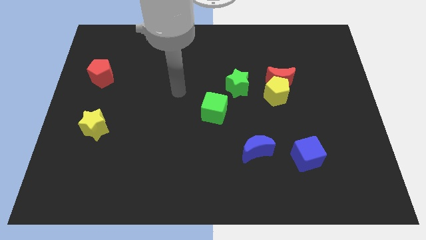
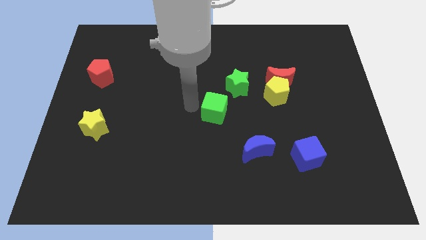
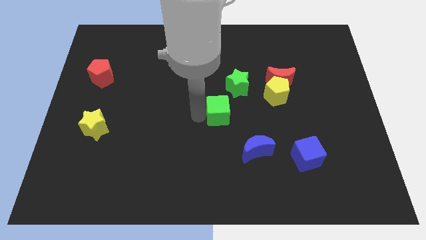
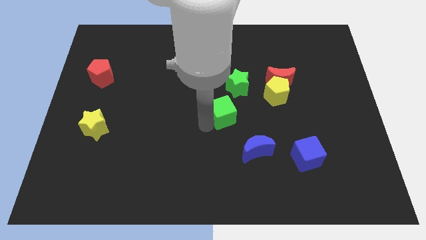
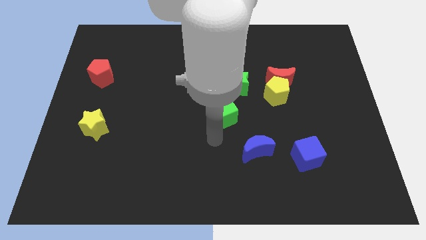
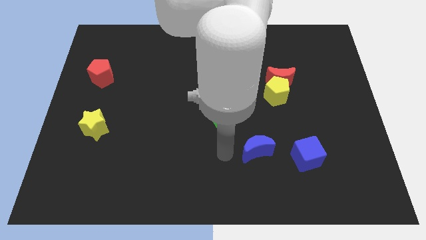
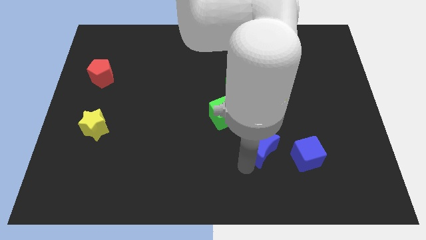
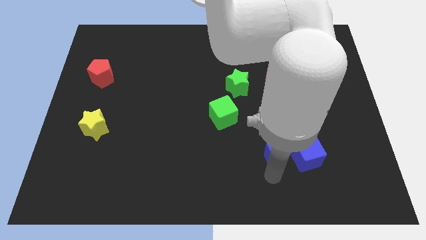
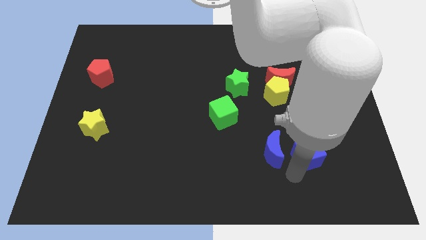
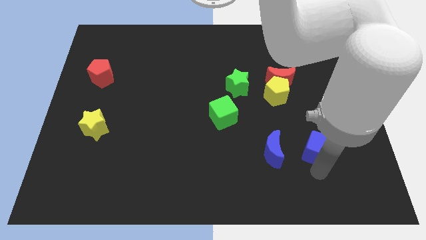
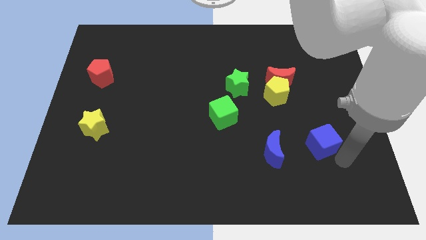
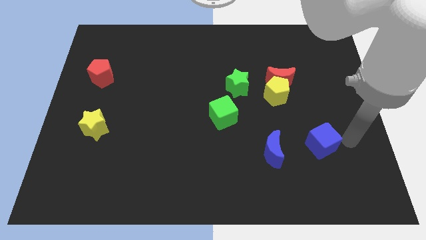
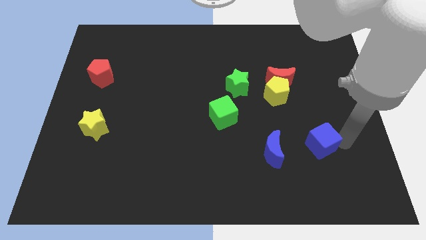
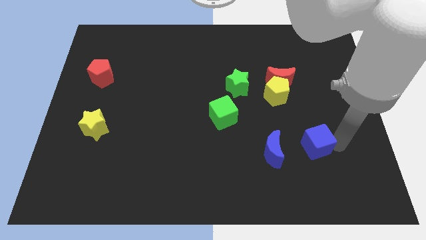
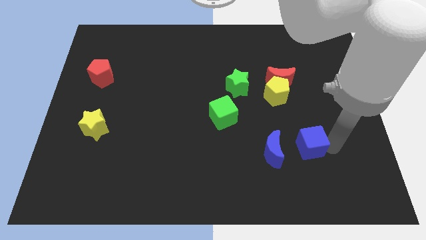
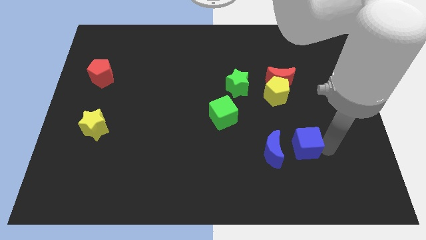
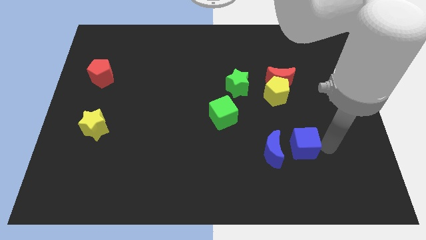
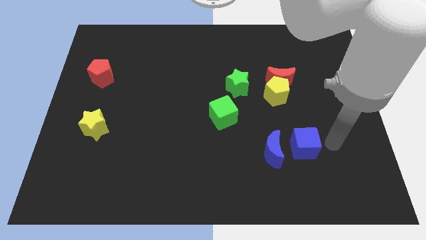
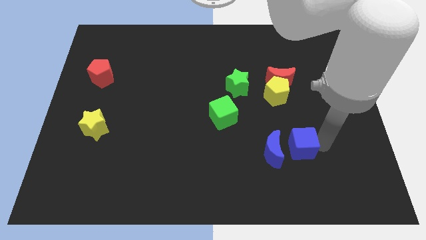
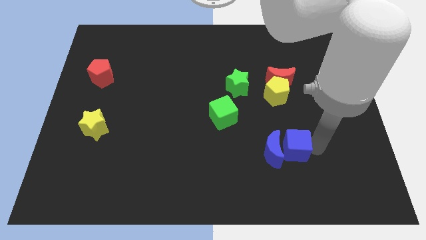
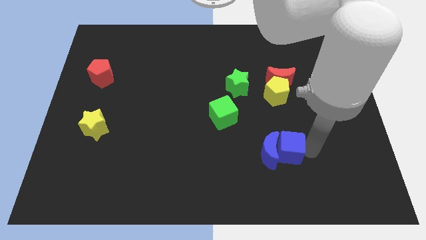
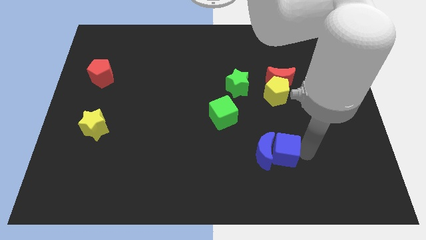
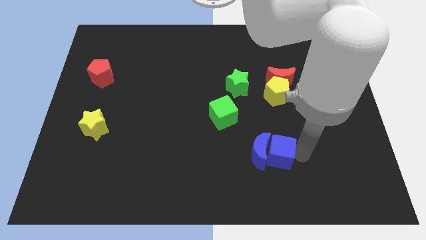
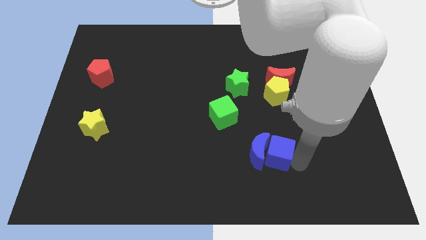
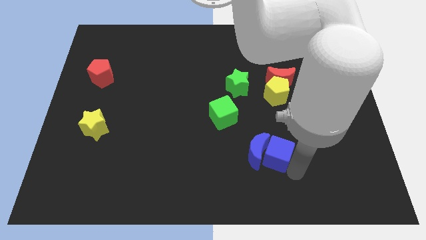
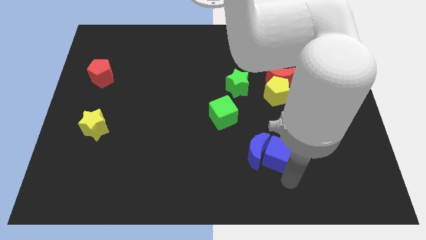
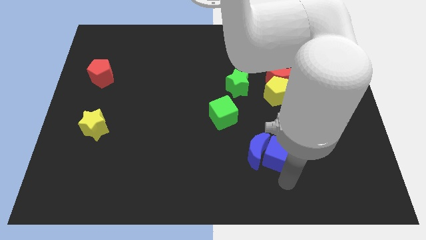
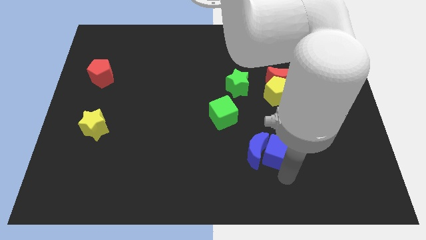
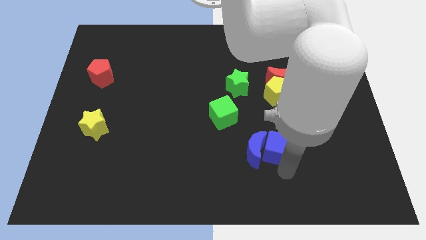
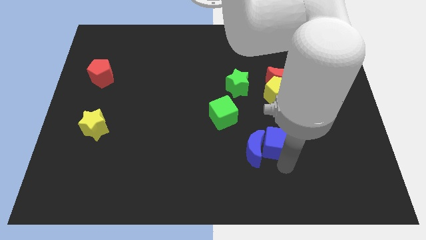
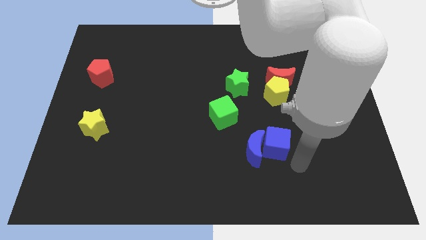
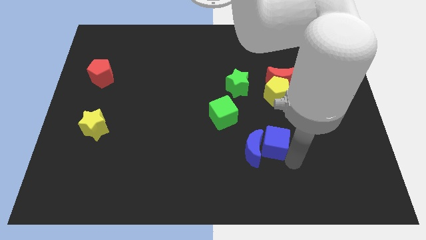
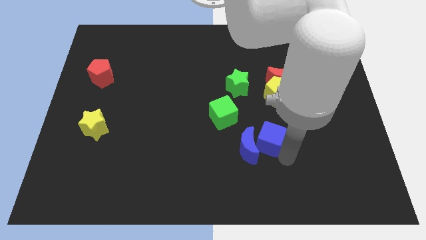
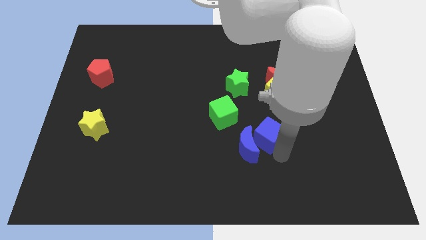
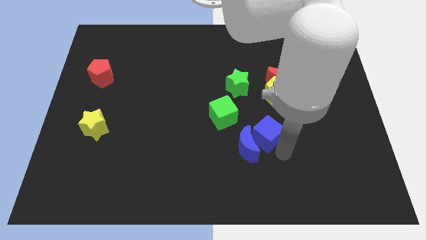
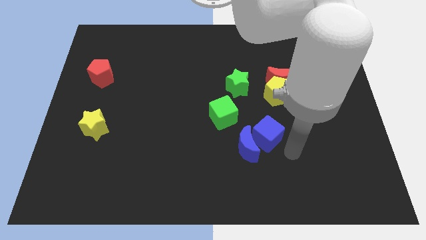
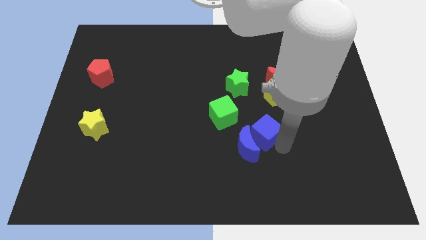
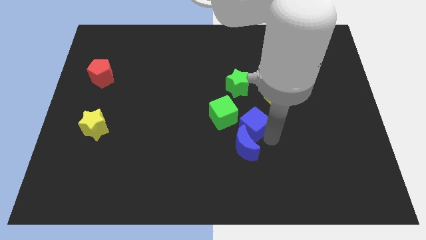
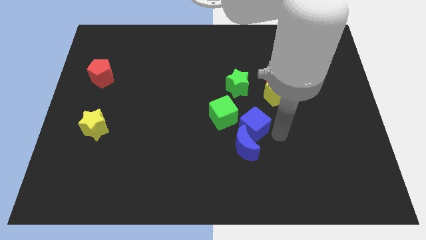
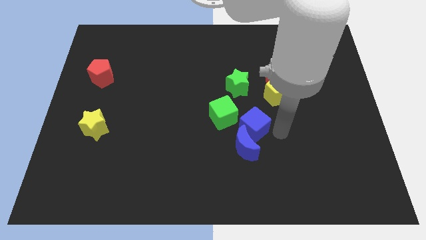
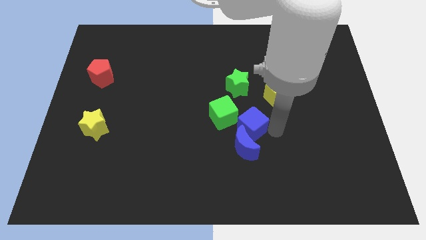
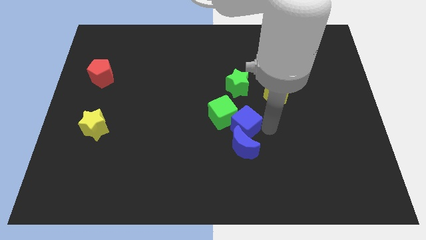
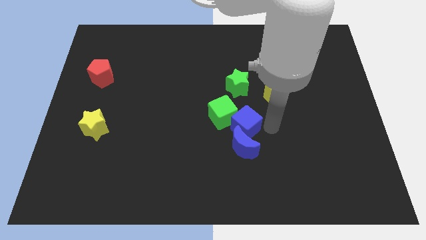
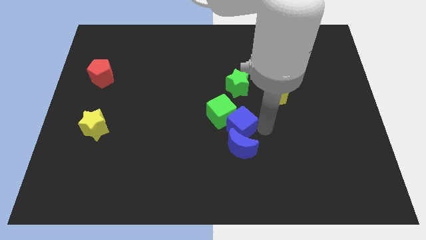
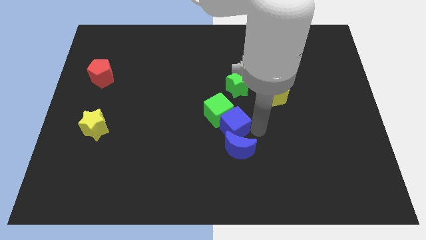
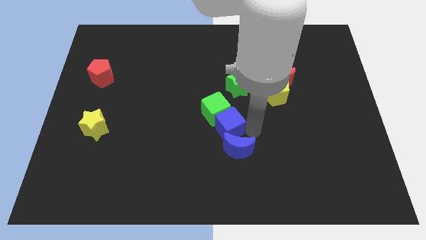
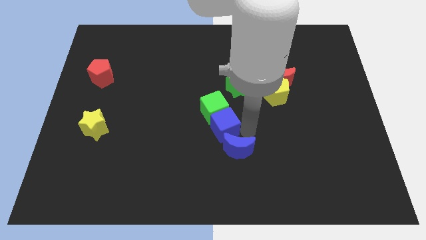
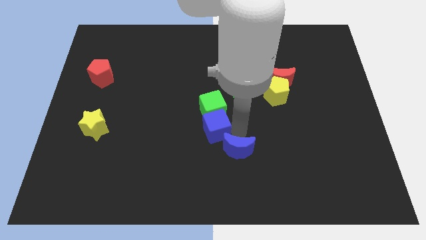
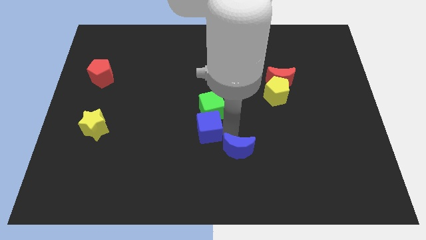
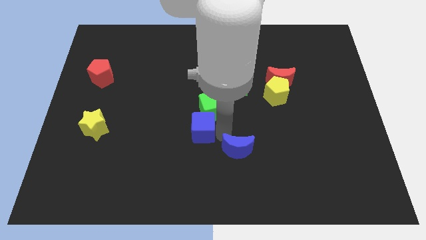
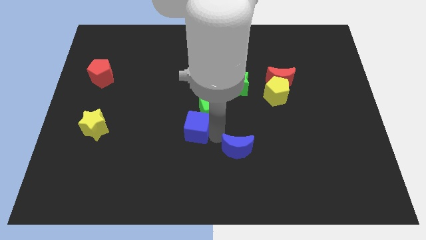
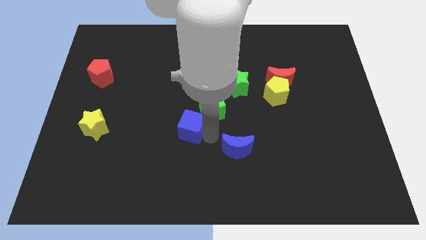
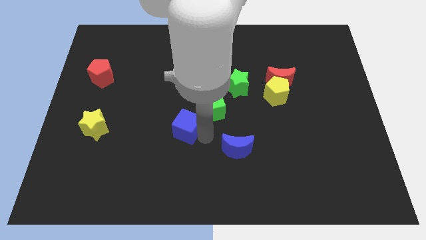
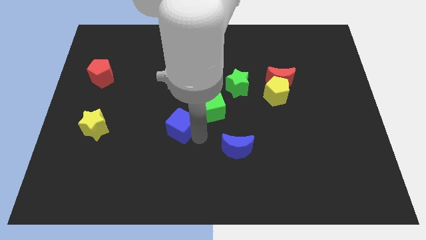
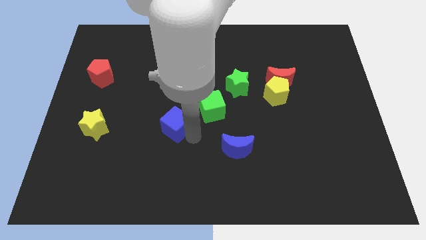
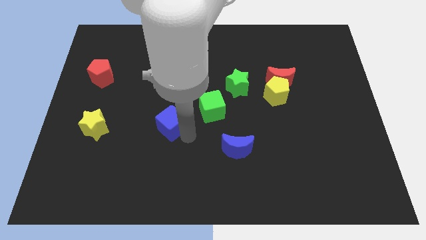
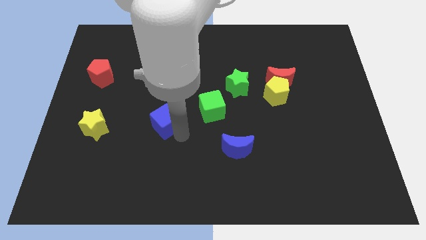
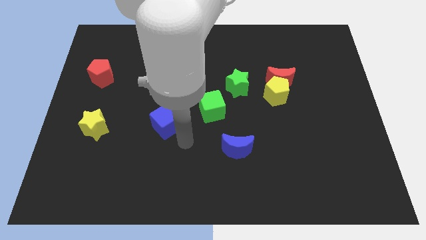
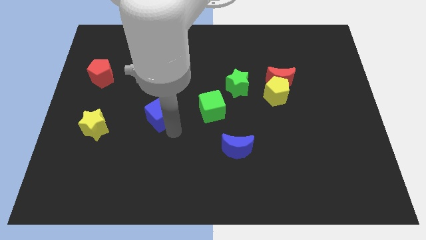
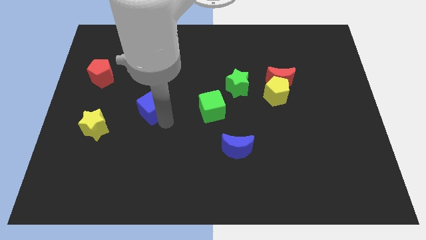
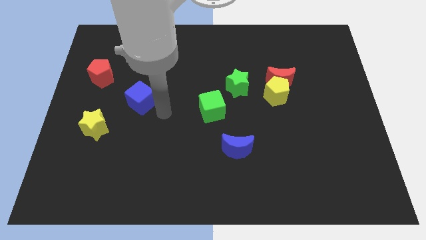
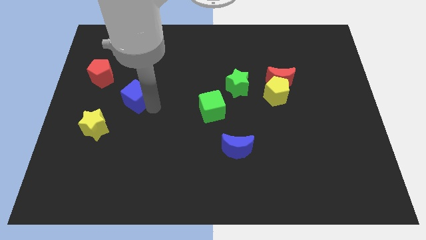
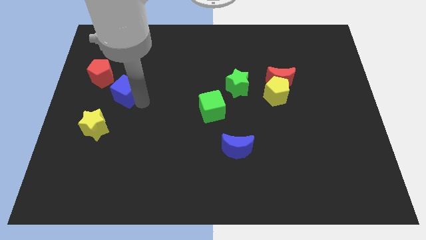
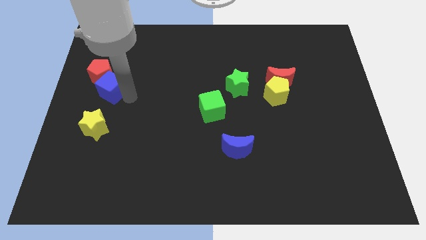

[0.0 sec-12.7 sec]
push the blue cube towards the red pentagon

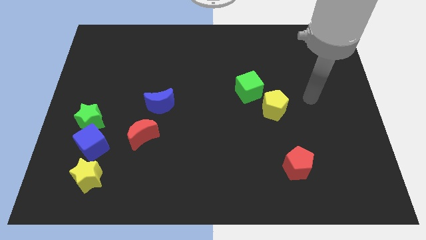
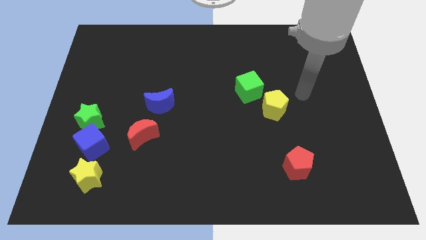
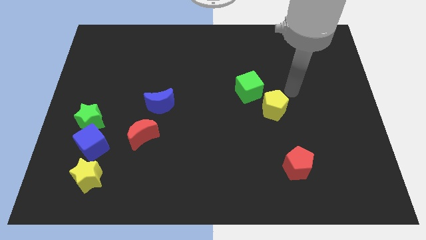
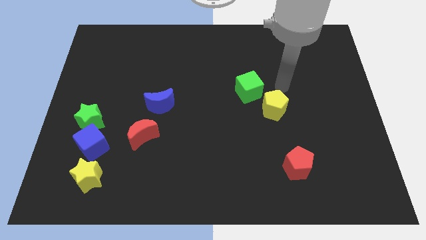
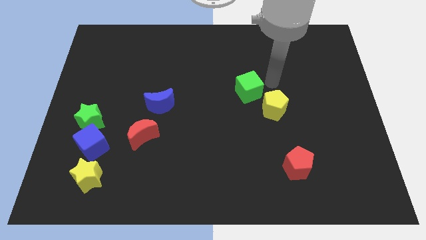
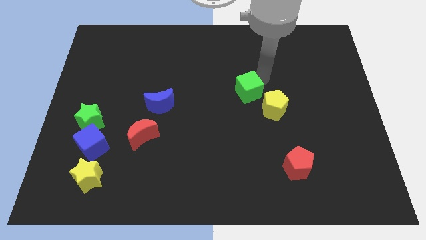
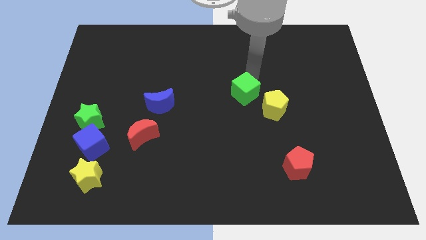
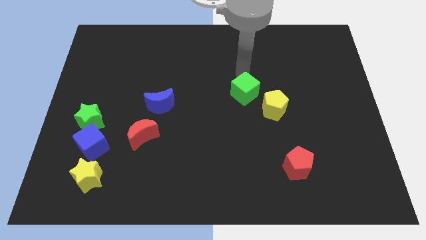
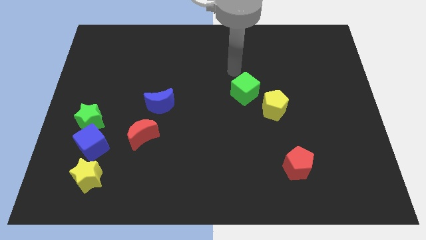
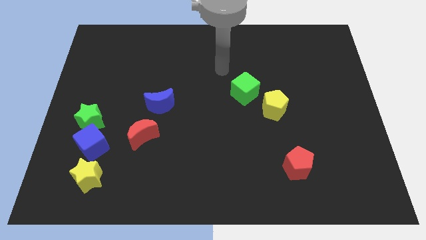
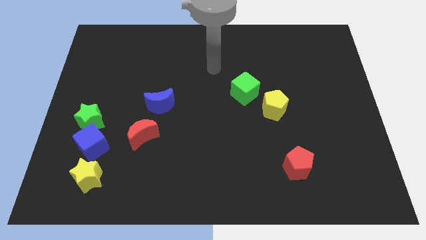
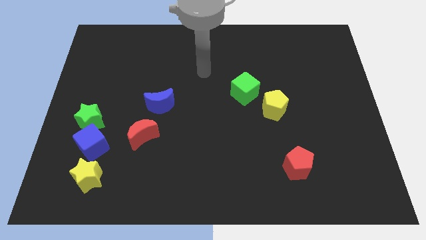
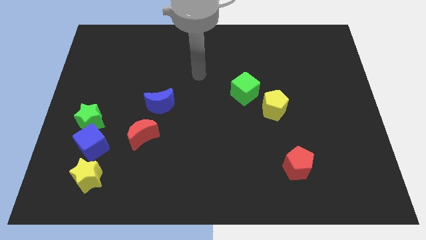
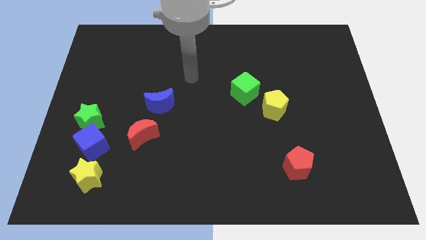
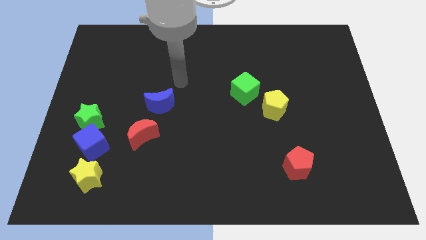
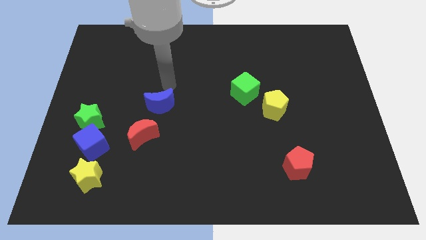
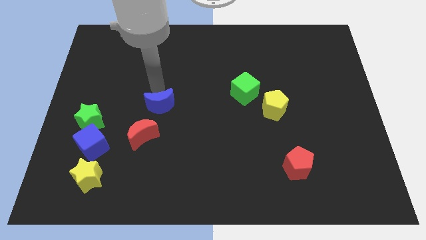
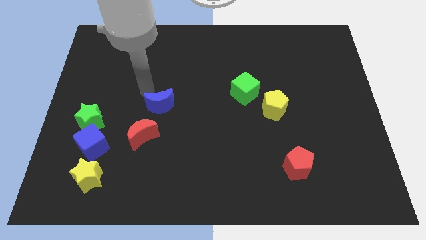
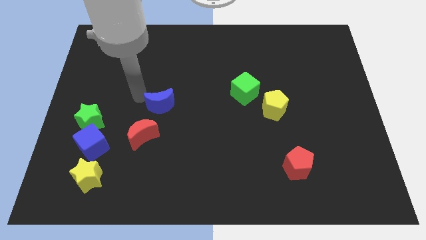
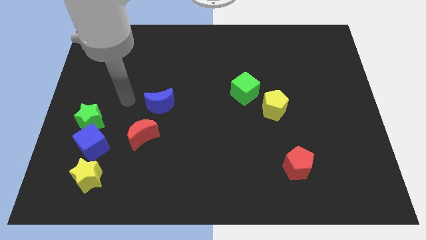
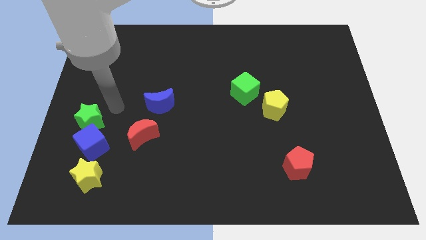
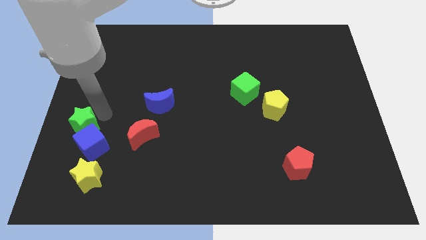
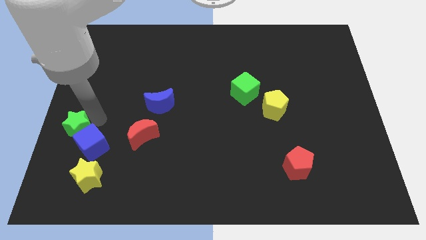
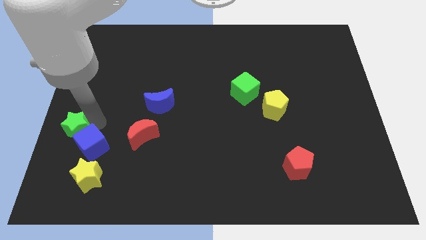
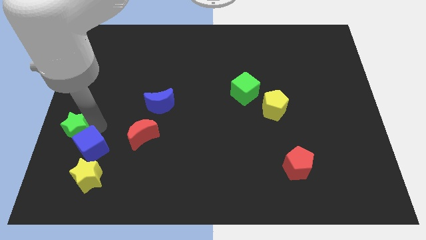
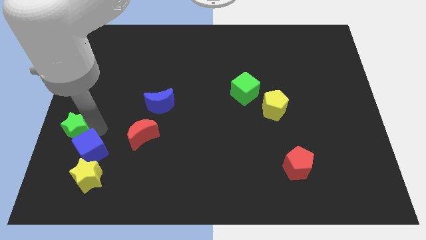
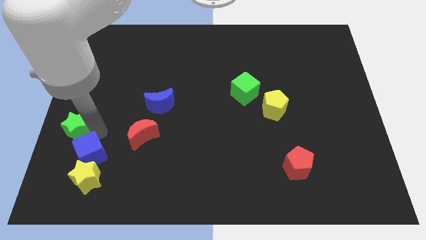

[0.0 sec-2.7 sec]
move the blue cube towards the yellow star
